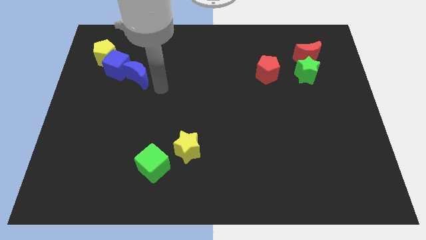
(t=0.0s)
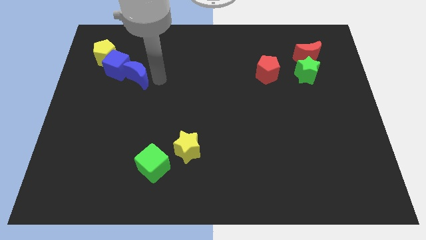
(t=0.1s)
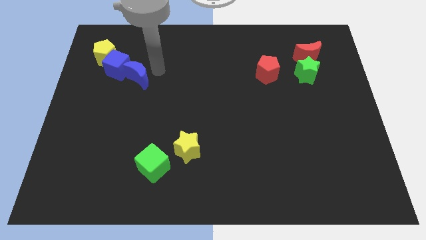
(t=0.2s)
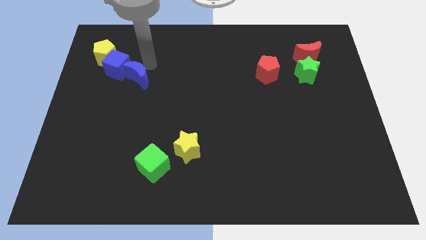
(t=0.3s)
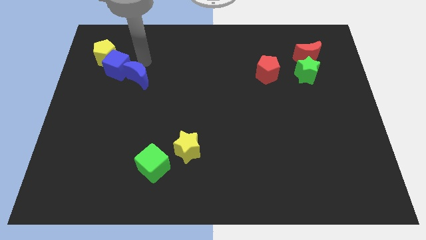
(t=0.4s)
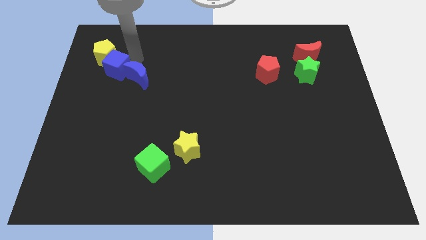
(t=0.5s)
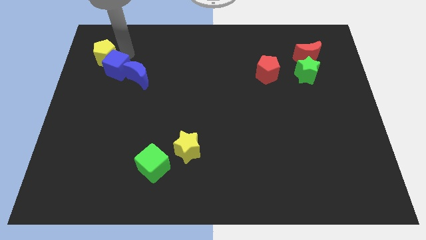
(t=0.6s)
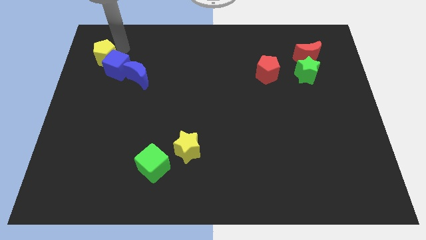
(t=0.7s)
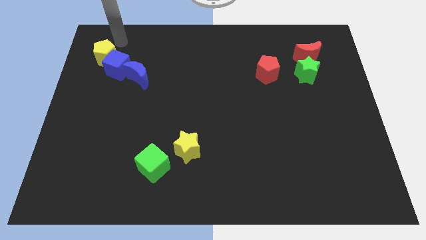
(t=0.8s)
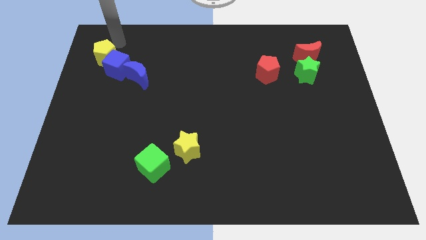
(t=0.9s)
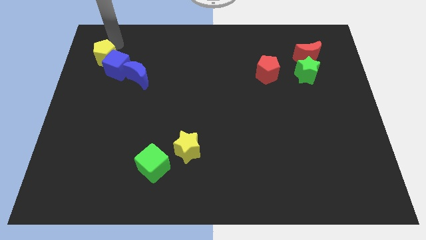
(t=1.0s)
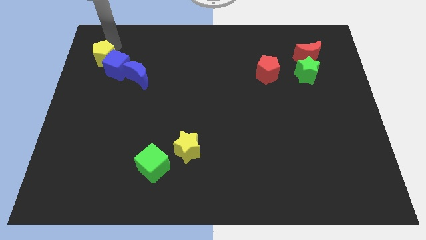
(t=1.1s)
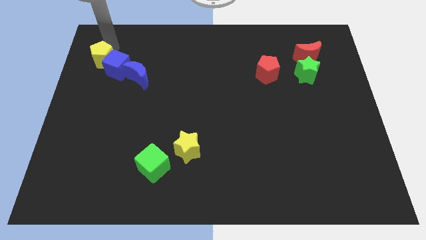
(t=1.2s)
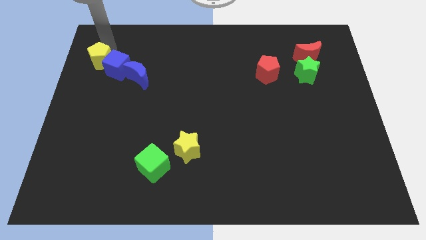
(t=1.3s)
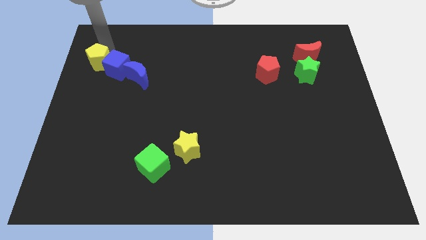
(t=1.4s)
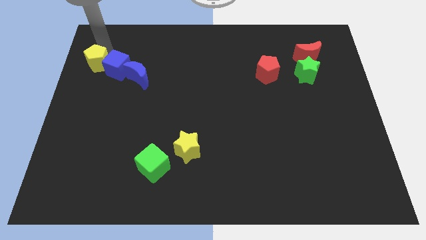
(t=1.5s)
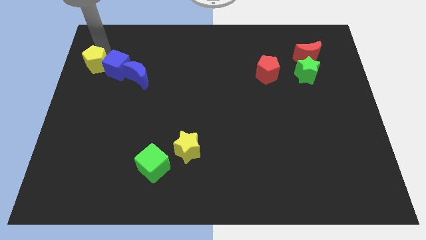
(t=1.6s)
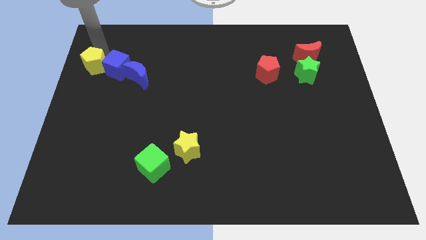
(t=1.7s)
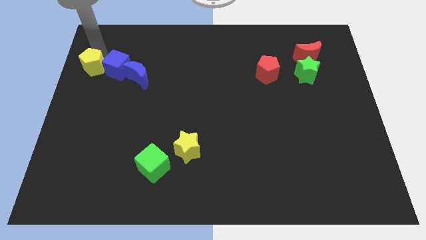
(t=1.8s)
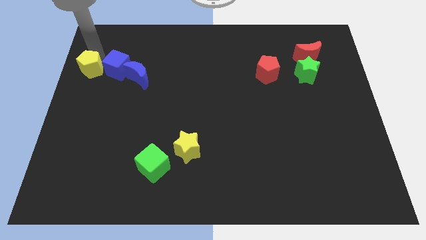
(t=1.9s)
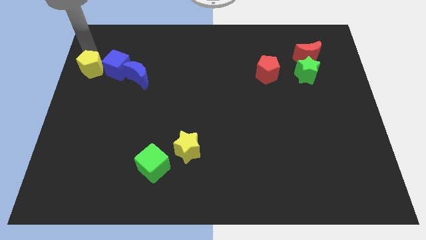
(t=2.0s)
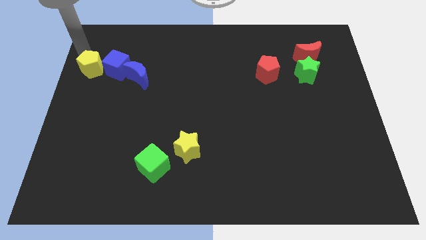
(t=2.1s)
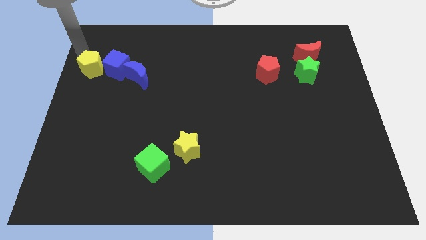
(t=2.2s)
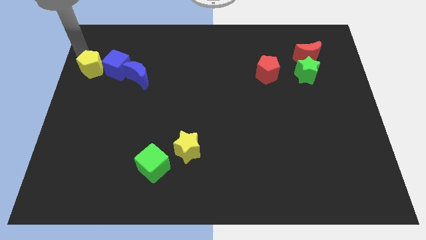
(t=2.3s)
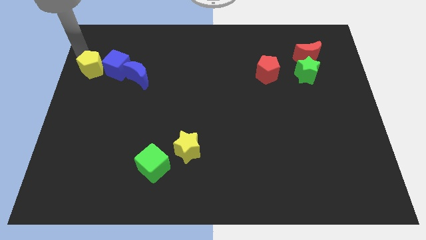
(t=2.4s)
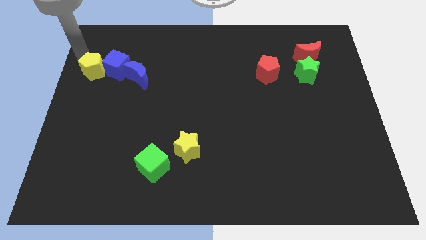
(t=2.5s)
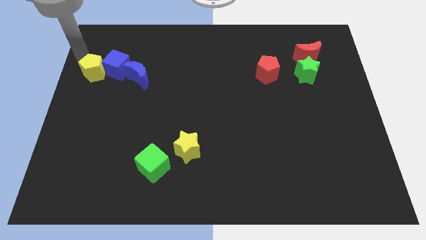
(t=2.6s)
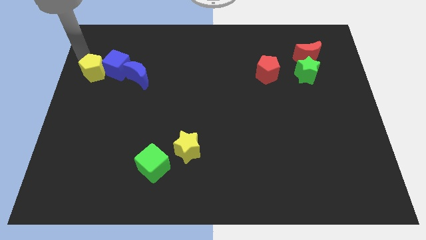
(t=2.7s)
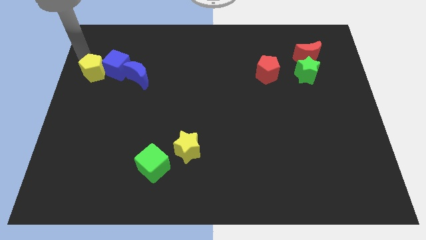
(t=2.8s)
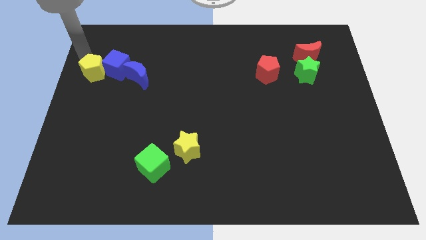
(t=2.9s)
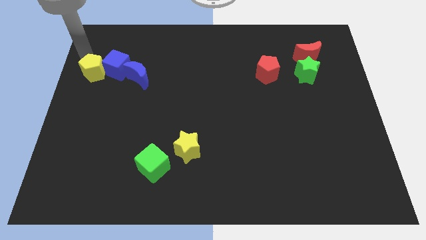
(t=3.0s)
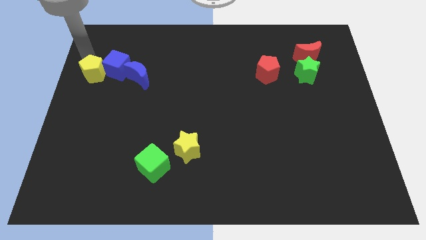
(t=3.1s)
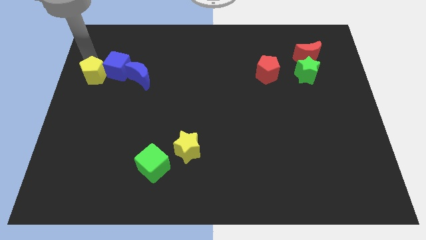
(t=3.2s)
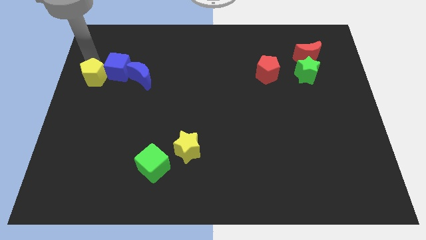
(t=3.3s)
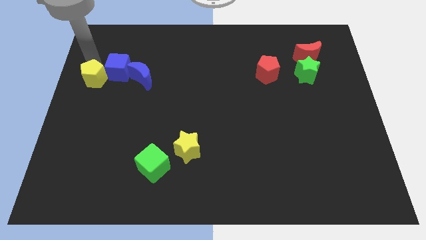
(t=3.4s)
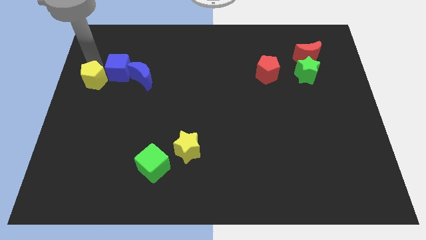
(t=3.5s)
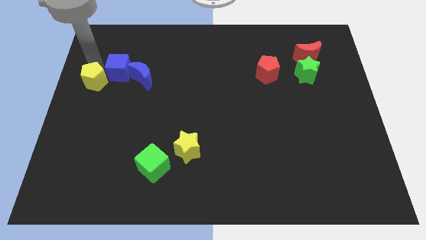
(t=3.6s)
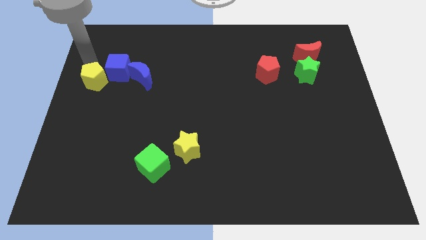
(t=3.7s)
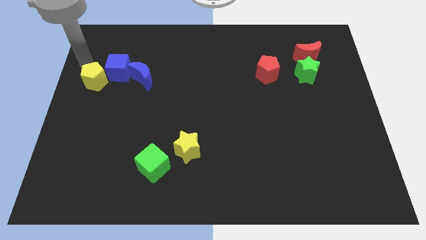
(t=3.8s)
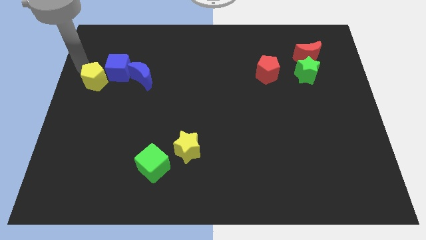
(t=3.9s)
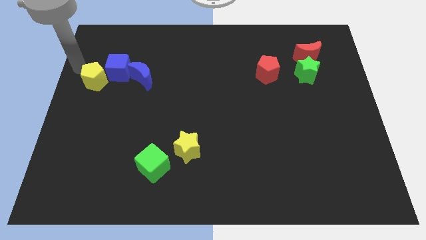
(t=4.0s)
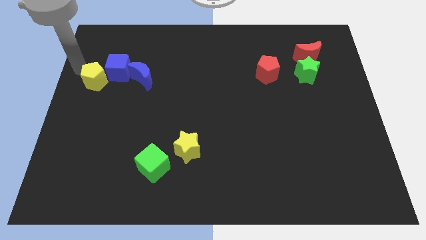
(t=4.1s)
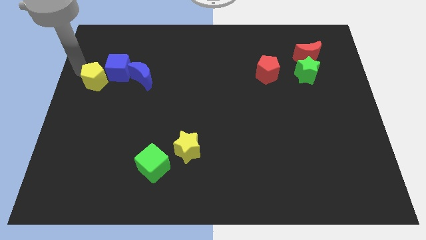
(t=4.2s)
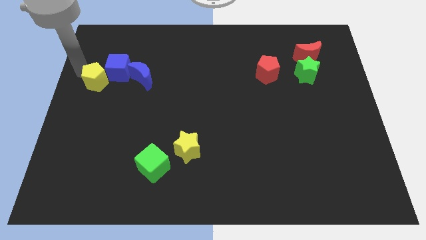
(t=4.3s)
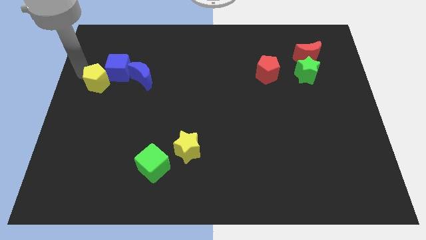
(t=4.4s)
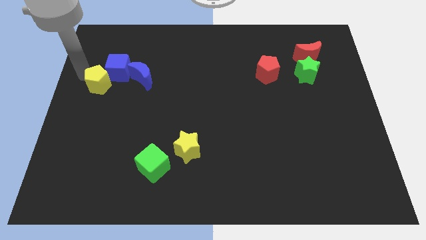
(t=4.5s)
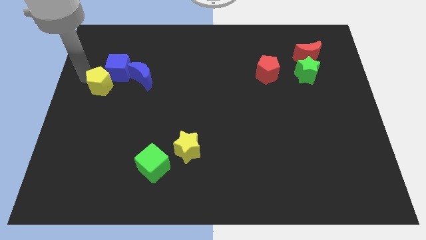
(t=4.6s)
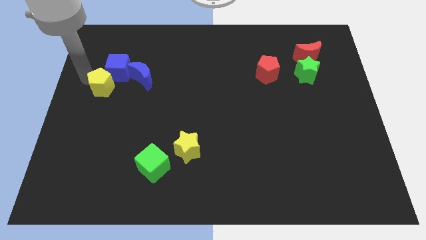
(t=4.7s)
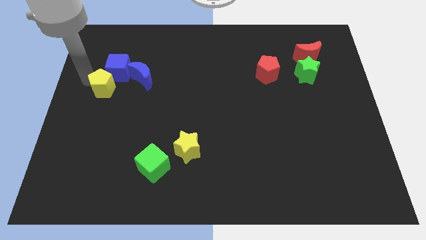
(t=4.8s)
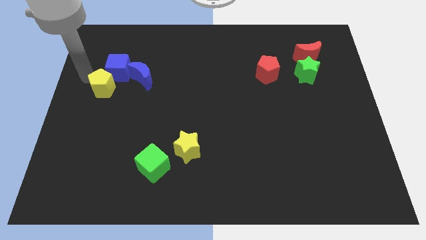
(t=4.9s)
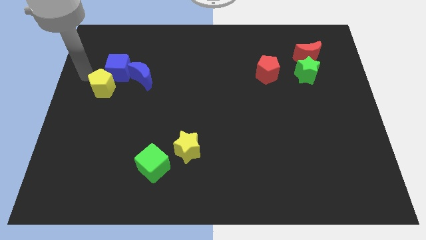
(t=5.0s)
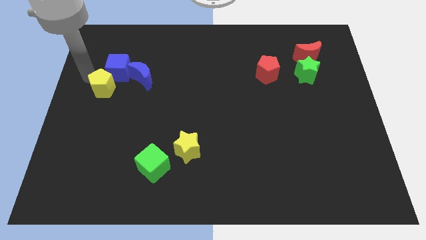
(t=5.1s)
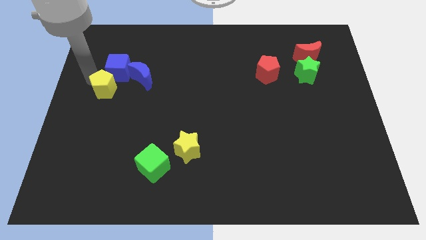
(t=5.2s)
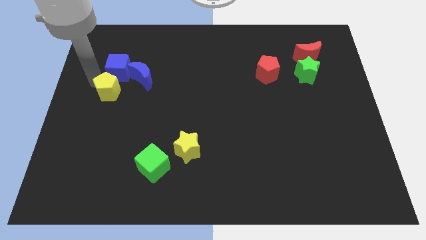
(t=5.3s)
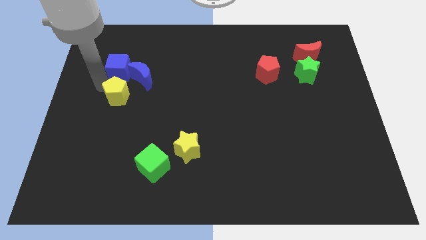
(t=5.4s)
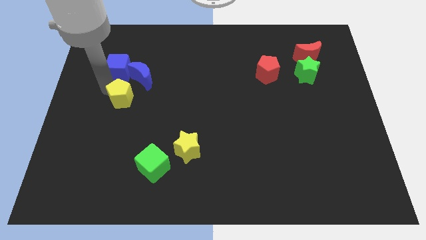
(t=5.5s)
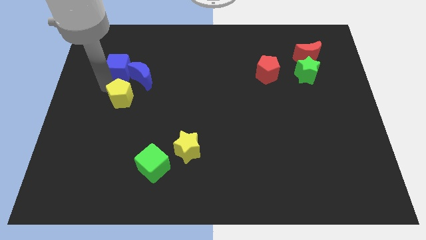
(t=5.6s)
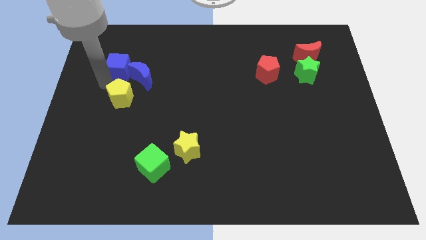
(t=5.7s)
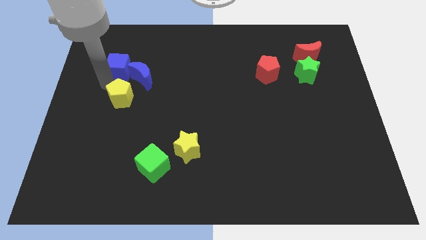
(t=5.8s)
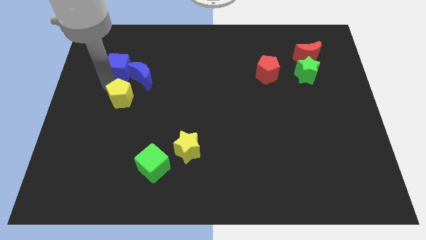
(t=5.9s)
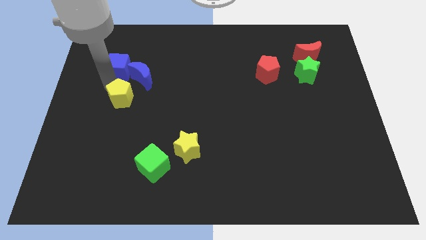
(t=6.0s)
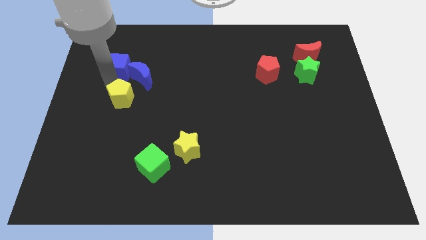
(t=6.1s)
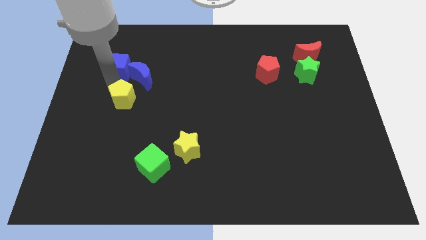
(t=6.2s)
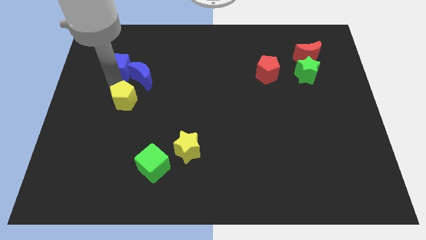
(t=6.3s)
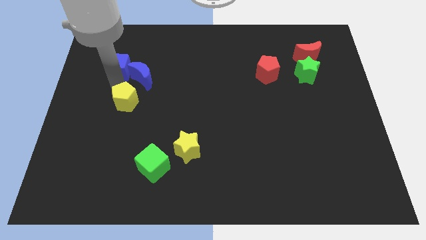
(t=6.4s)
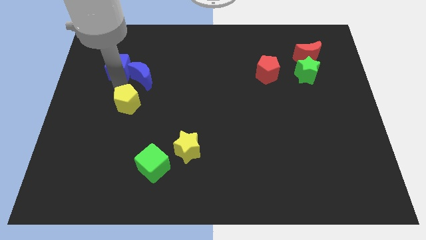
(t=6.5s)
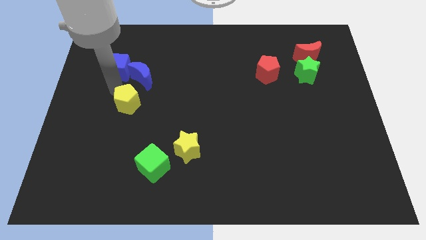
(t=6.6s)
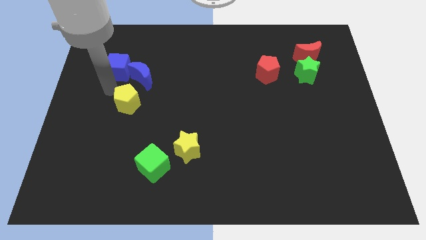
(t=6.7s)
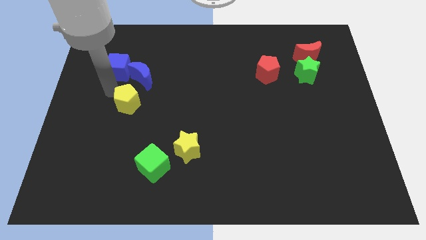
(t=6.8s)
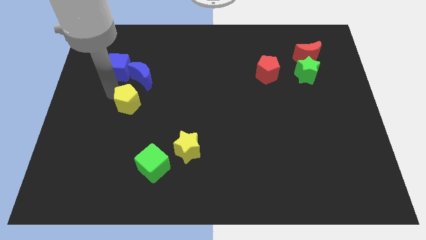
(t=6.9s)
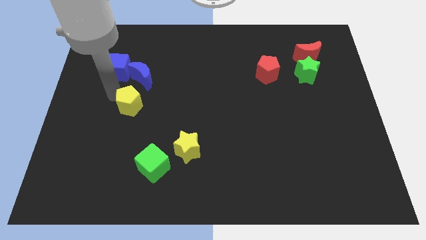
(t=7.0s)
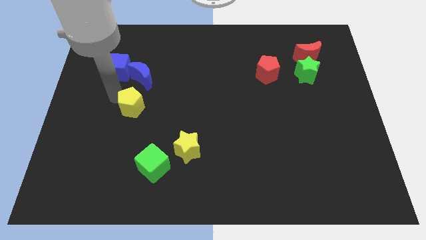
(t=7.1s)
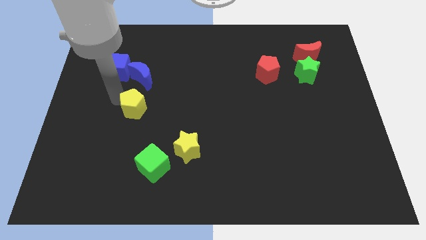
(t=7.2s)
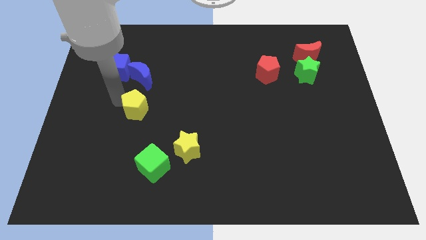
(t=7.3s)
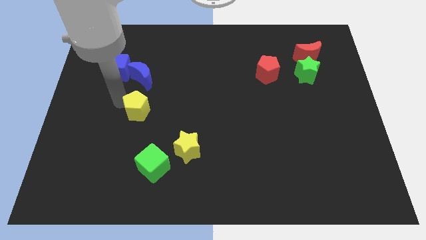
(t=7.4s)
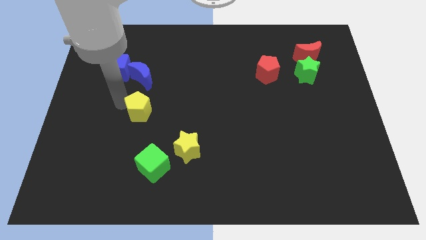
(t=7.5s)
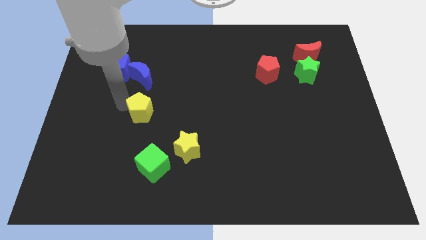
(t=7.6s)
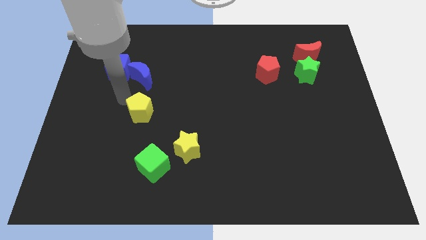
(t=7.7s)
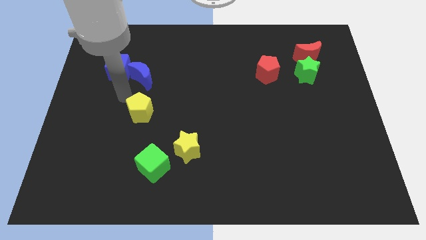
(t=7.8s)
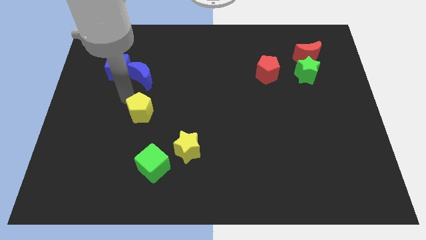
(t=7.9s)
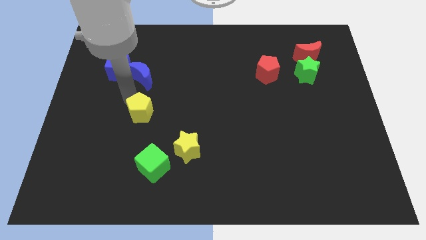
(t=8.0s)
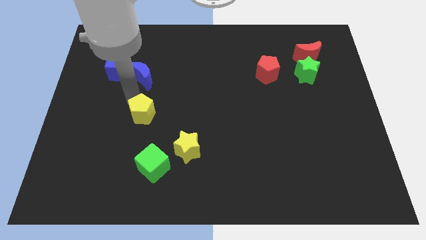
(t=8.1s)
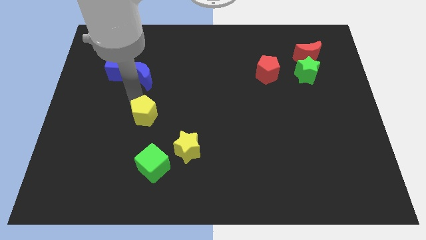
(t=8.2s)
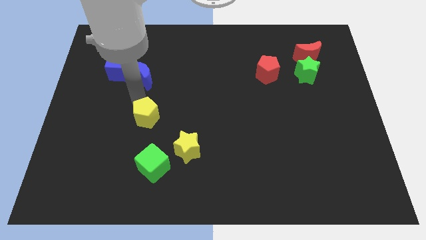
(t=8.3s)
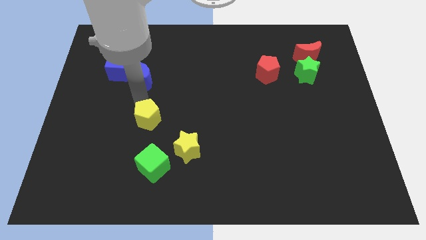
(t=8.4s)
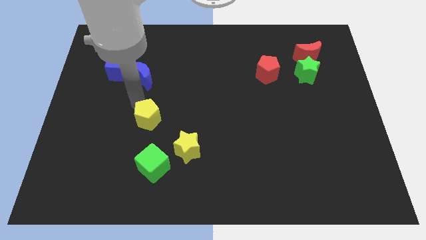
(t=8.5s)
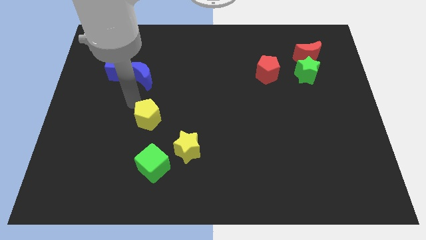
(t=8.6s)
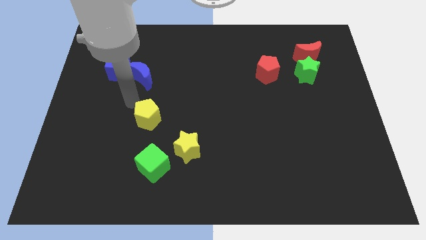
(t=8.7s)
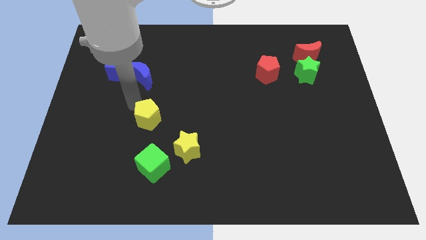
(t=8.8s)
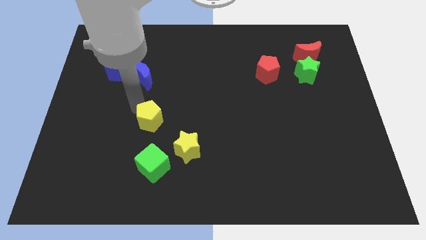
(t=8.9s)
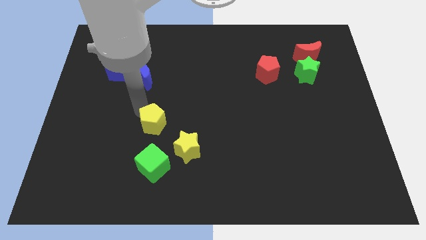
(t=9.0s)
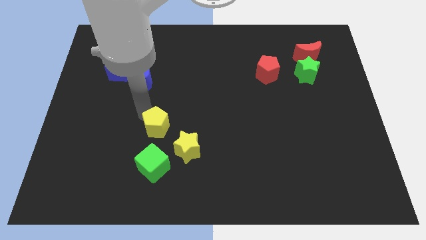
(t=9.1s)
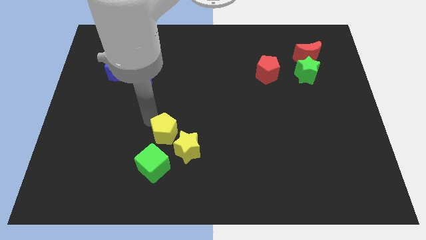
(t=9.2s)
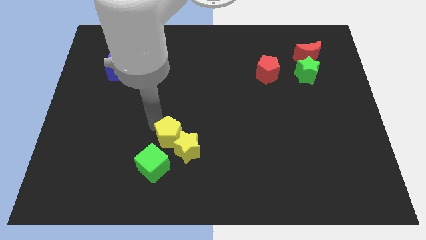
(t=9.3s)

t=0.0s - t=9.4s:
slide the yellow pentagon next to the yellow star
